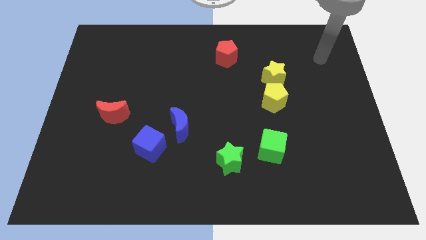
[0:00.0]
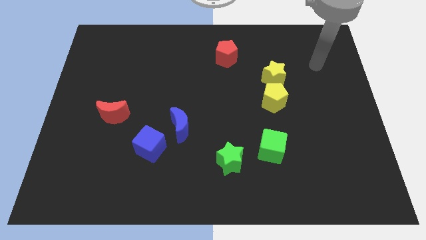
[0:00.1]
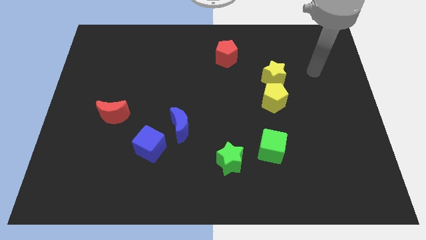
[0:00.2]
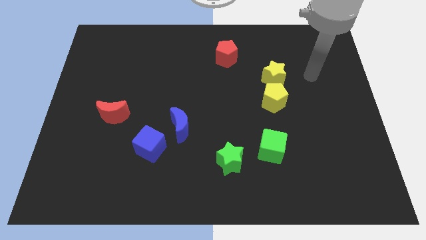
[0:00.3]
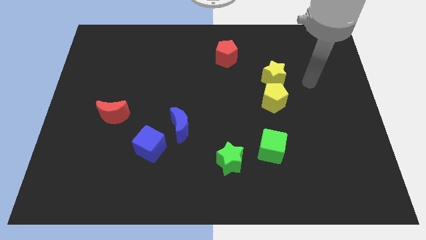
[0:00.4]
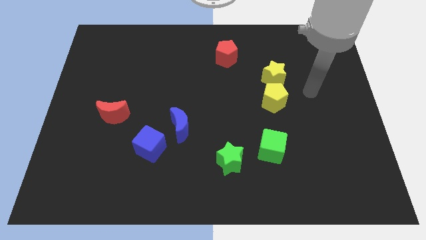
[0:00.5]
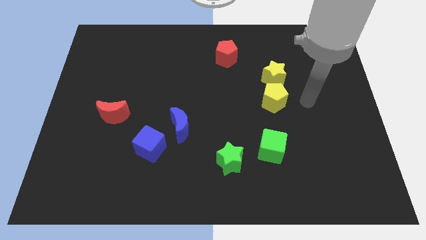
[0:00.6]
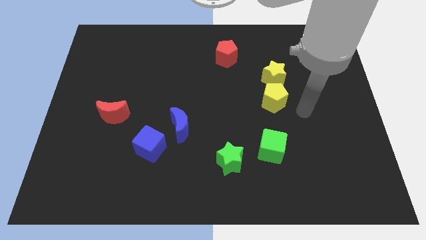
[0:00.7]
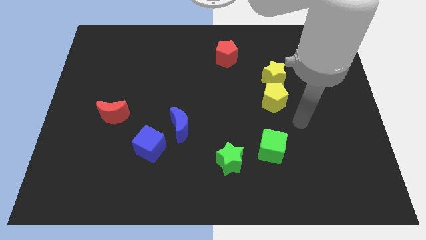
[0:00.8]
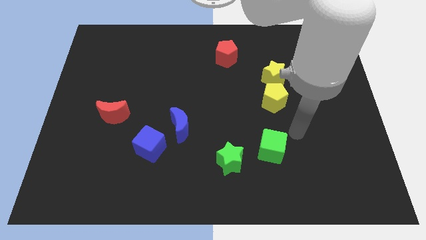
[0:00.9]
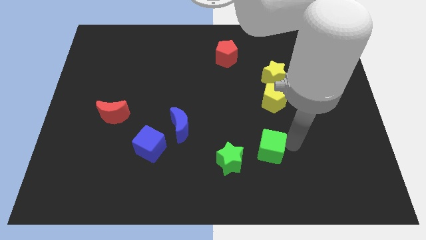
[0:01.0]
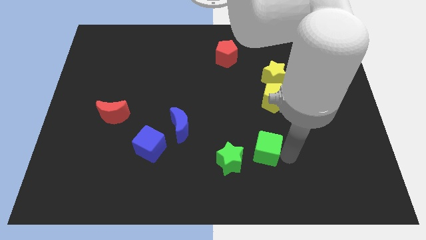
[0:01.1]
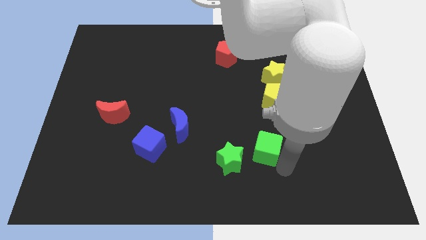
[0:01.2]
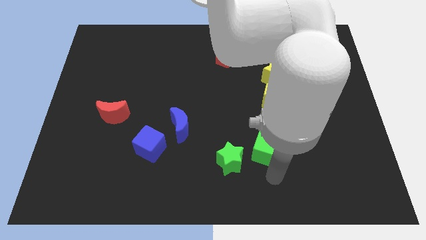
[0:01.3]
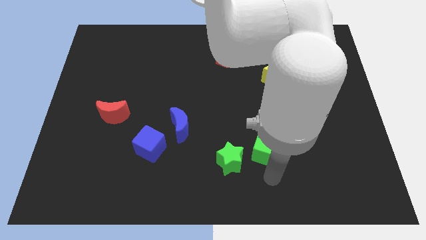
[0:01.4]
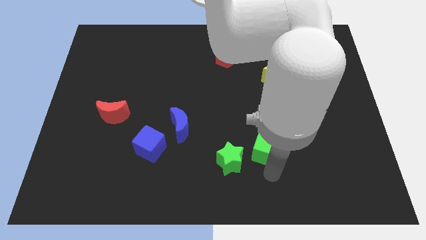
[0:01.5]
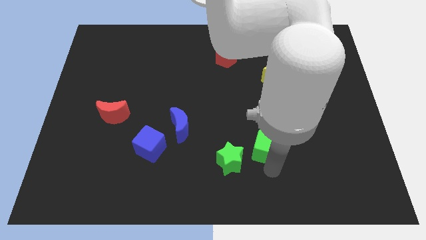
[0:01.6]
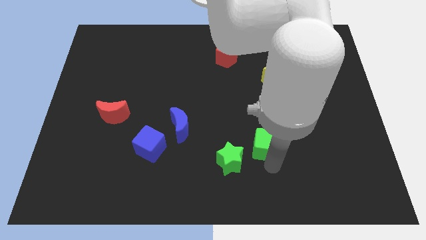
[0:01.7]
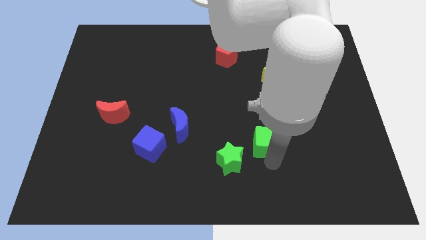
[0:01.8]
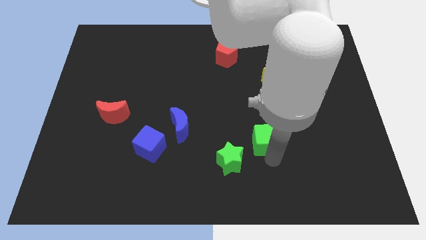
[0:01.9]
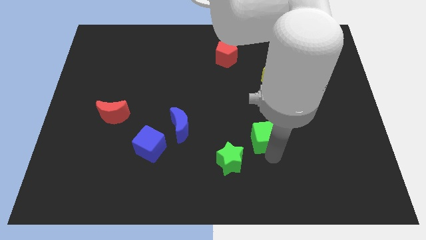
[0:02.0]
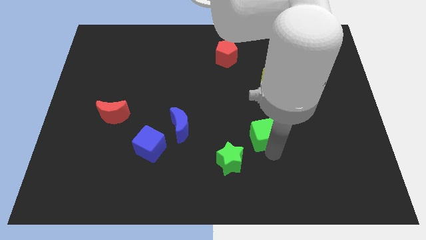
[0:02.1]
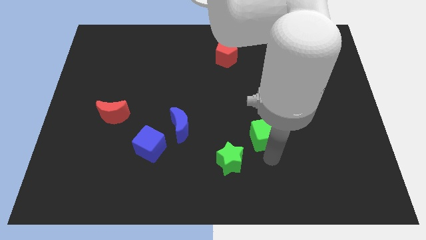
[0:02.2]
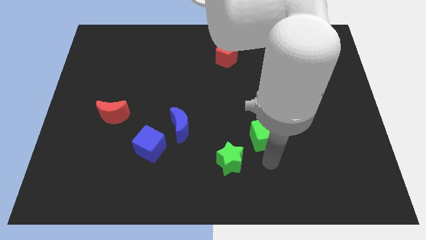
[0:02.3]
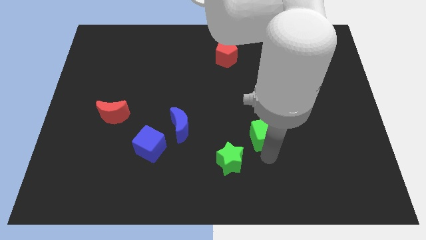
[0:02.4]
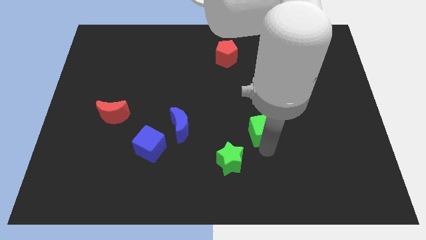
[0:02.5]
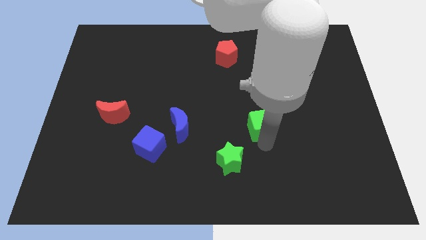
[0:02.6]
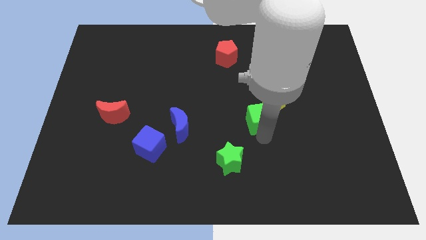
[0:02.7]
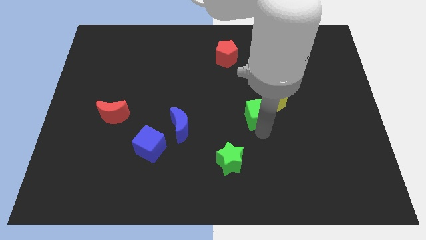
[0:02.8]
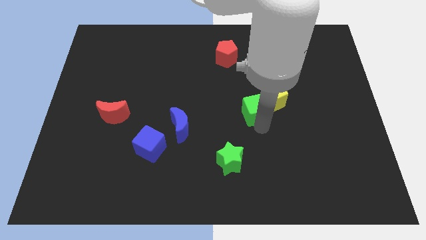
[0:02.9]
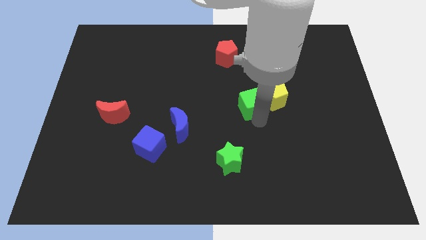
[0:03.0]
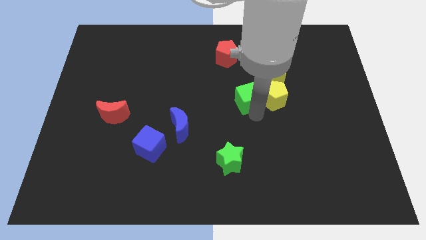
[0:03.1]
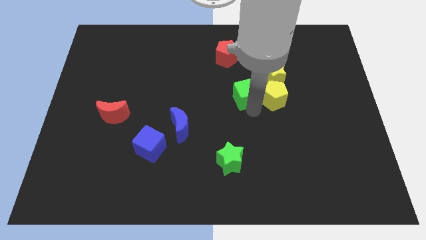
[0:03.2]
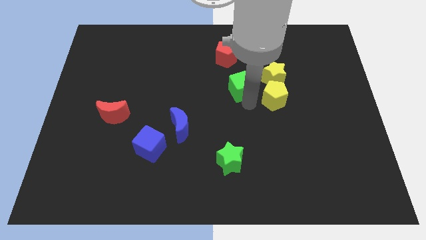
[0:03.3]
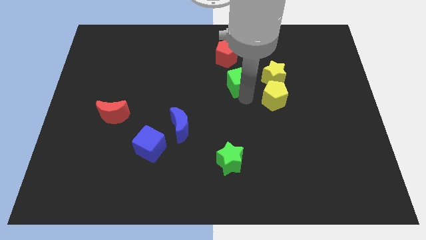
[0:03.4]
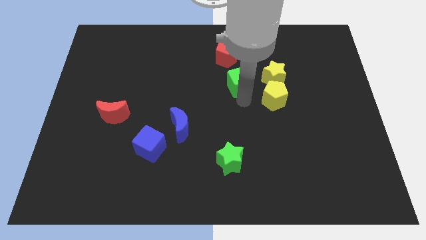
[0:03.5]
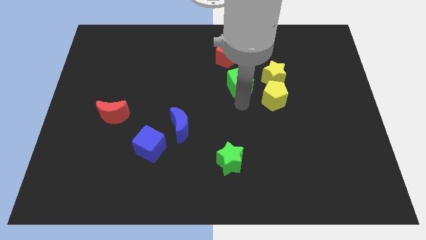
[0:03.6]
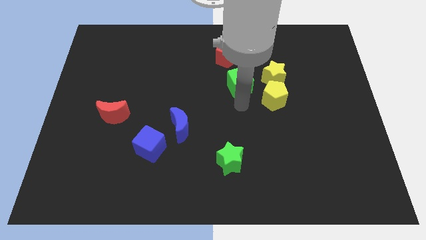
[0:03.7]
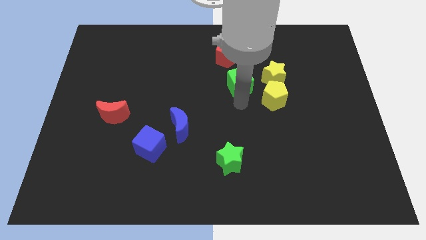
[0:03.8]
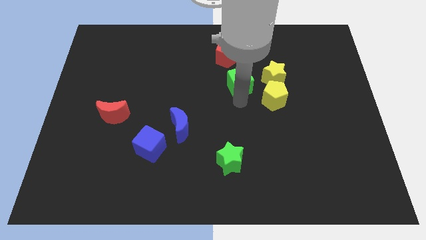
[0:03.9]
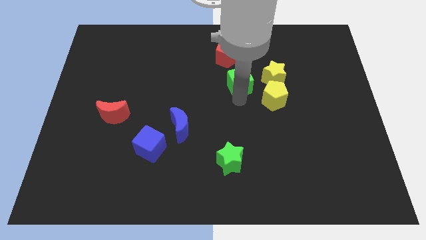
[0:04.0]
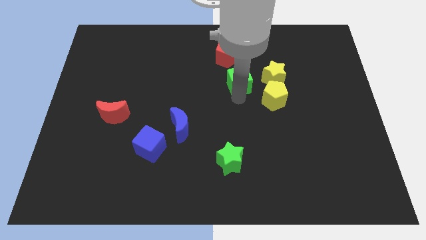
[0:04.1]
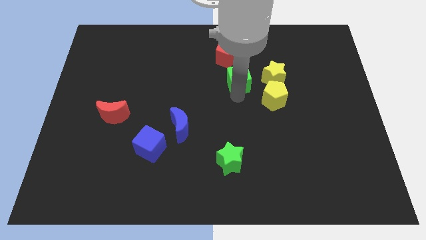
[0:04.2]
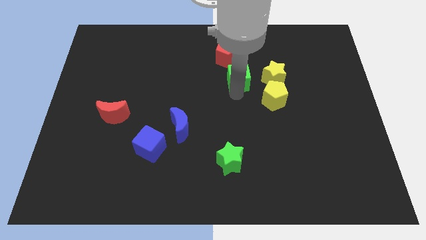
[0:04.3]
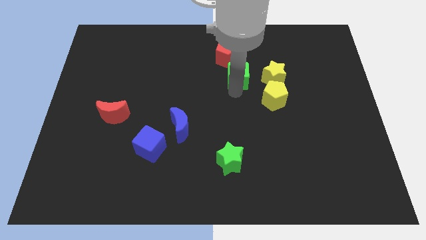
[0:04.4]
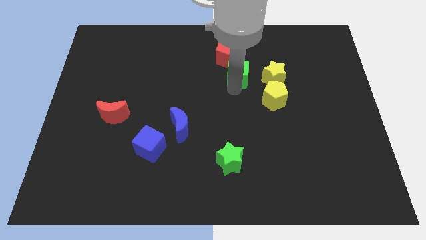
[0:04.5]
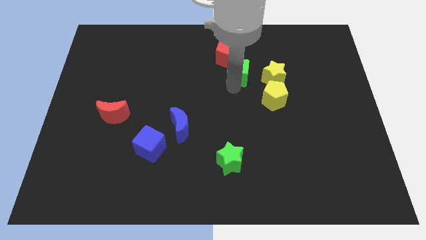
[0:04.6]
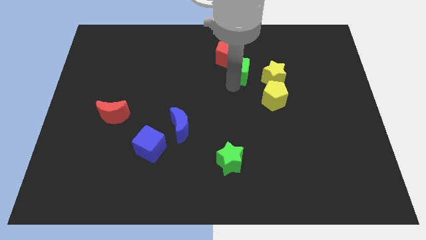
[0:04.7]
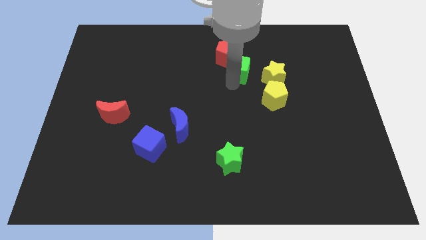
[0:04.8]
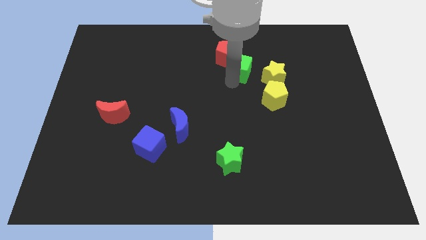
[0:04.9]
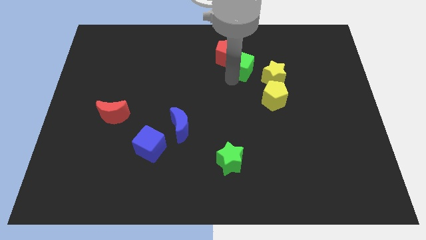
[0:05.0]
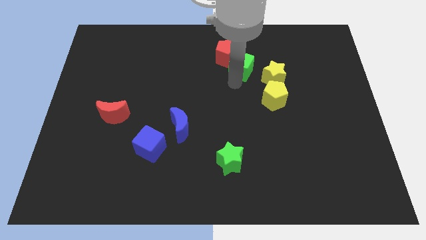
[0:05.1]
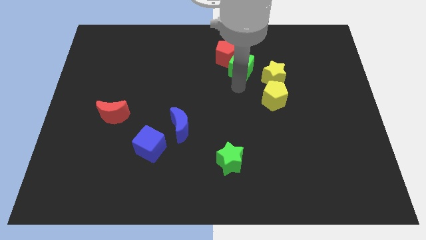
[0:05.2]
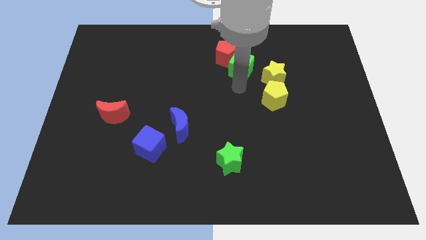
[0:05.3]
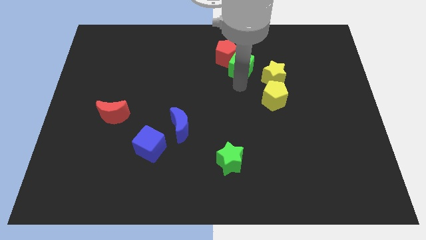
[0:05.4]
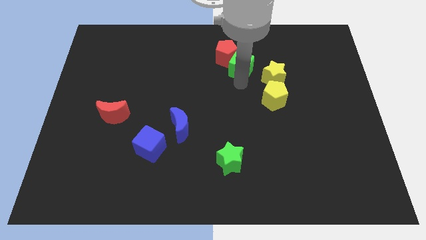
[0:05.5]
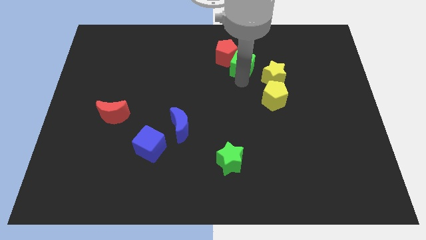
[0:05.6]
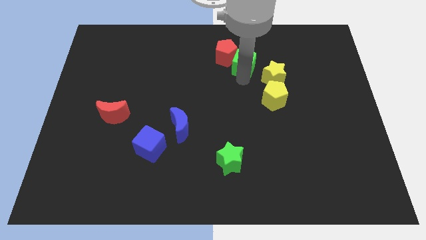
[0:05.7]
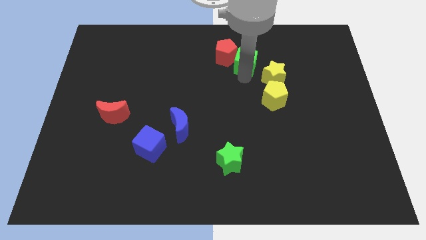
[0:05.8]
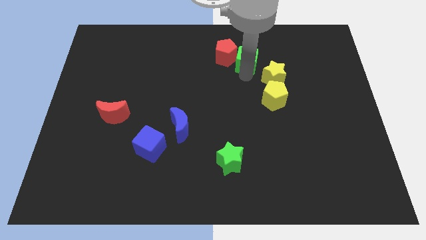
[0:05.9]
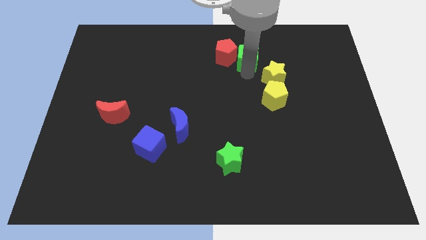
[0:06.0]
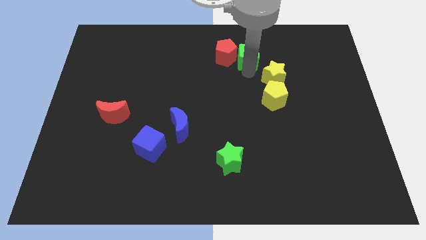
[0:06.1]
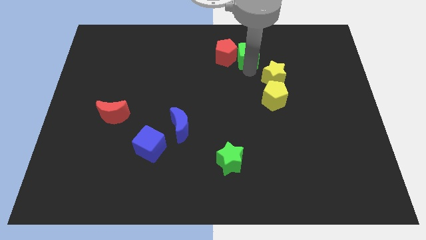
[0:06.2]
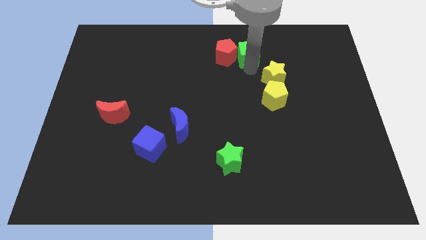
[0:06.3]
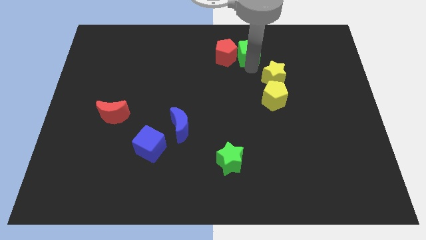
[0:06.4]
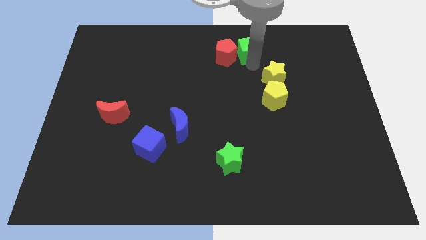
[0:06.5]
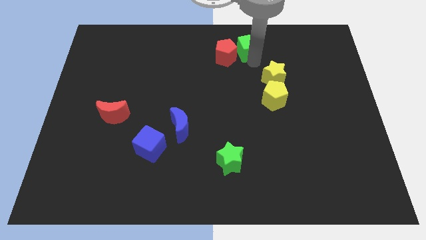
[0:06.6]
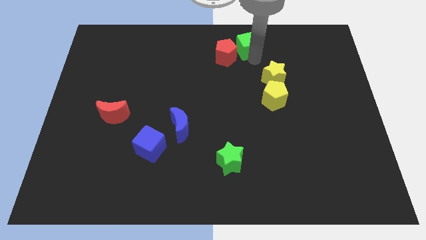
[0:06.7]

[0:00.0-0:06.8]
put the green cube to the towards your base
